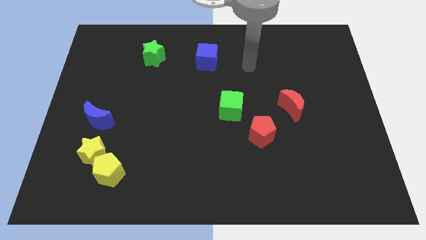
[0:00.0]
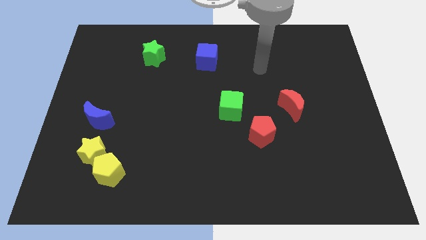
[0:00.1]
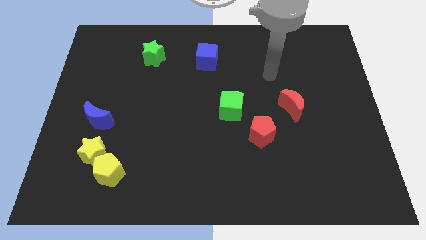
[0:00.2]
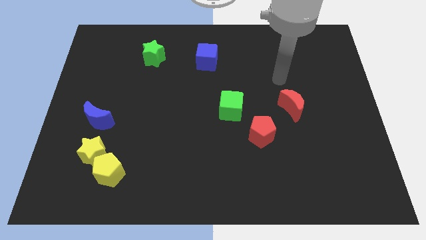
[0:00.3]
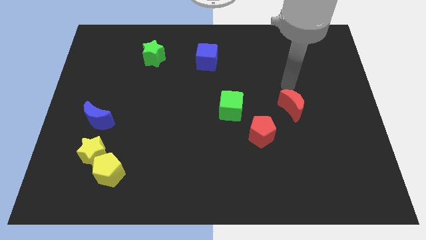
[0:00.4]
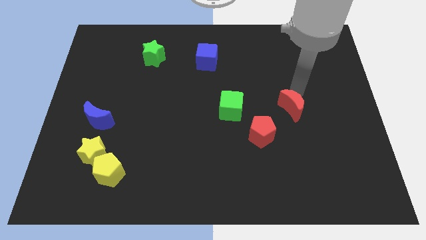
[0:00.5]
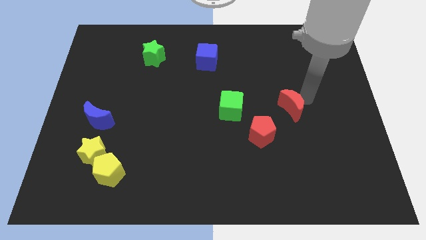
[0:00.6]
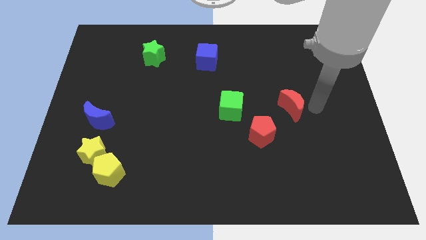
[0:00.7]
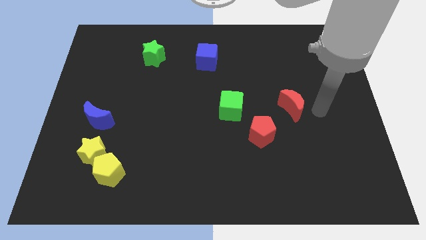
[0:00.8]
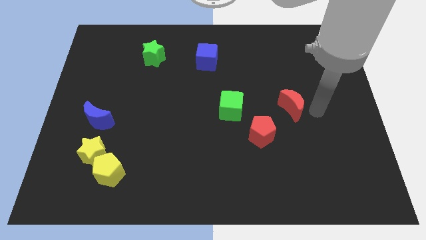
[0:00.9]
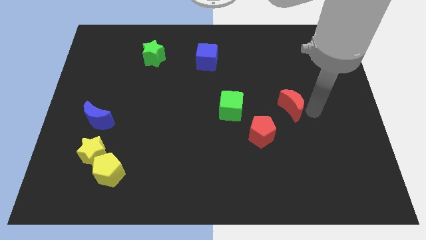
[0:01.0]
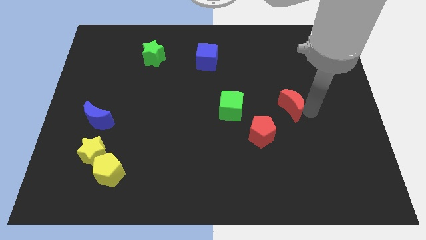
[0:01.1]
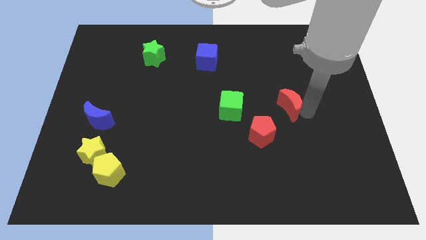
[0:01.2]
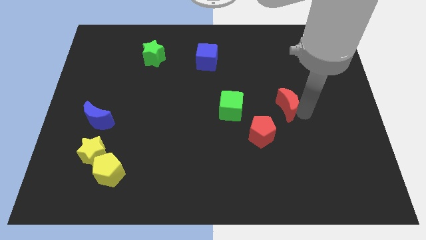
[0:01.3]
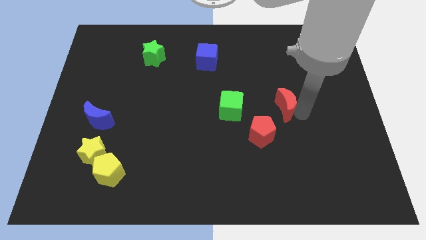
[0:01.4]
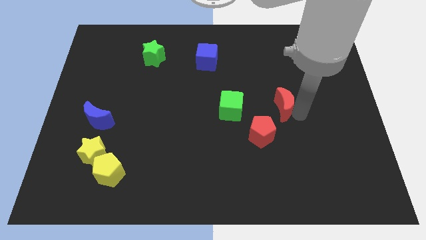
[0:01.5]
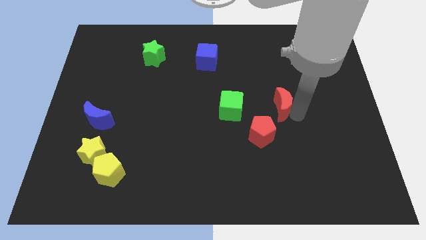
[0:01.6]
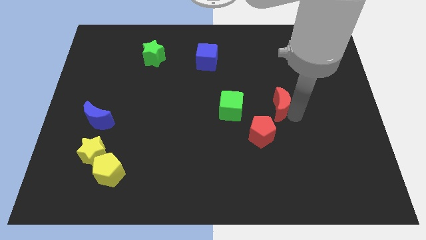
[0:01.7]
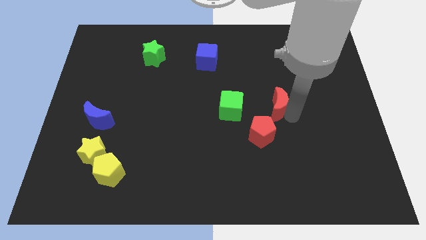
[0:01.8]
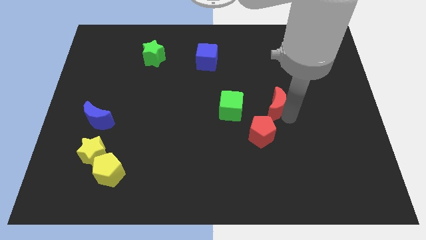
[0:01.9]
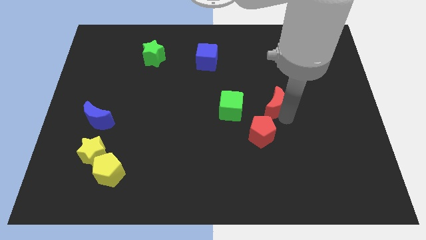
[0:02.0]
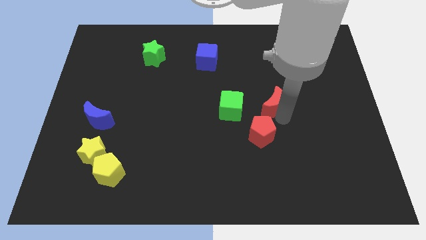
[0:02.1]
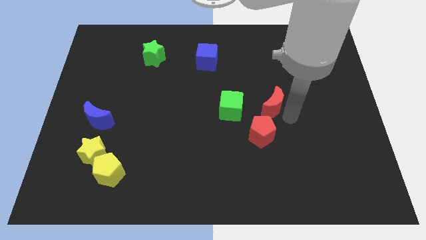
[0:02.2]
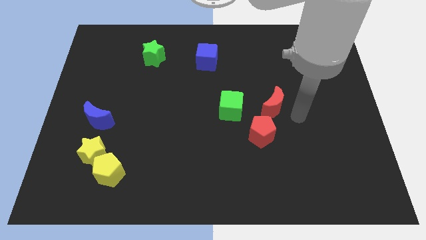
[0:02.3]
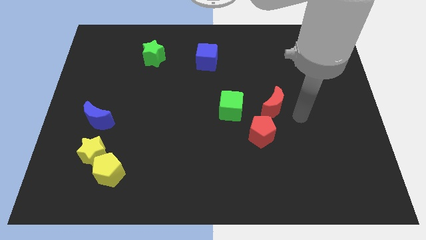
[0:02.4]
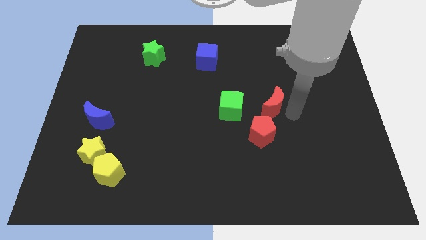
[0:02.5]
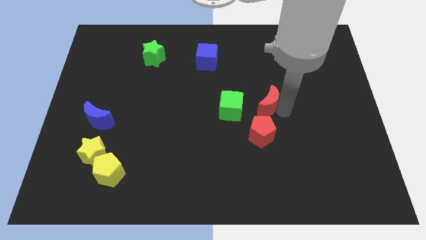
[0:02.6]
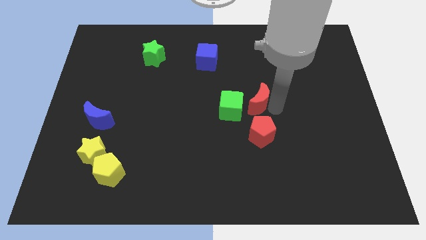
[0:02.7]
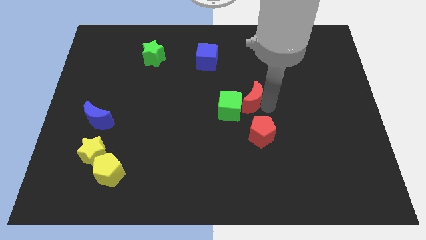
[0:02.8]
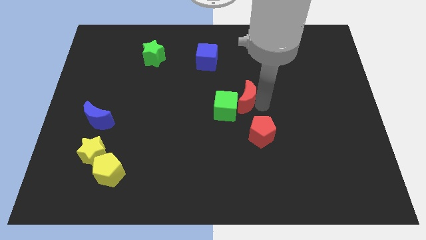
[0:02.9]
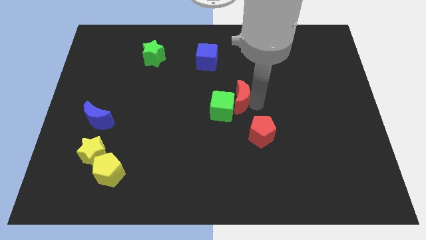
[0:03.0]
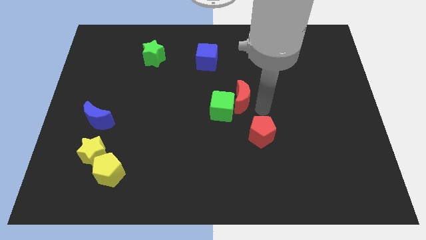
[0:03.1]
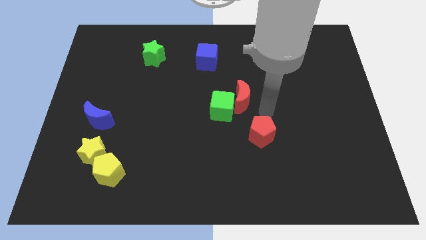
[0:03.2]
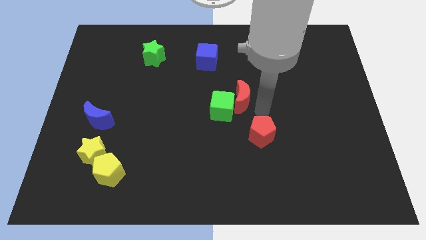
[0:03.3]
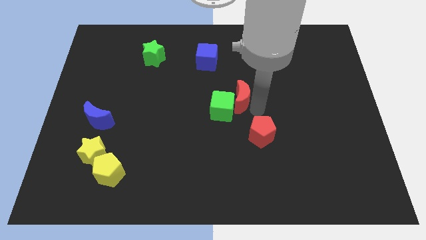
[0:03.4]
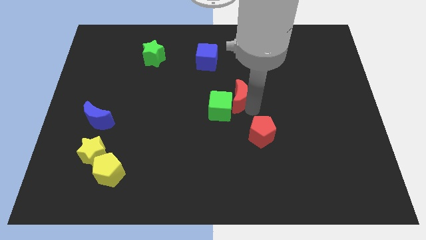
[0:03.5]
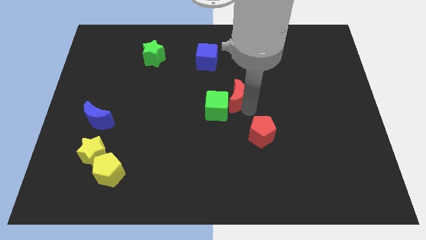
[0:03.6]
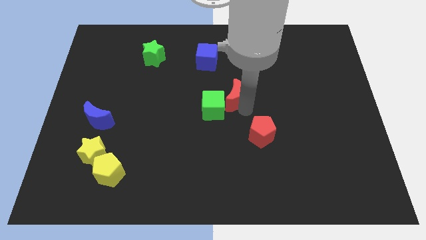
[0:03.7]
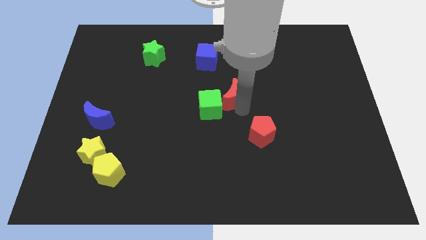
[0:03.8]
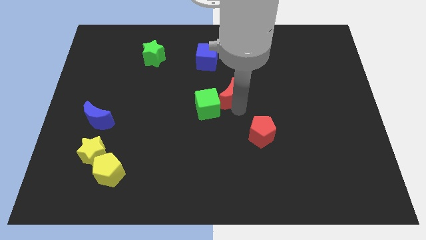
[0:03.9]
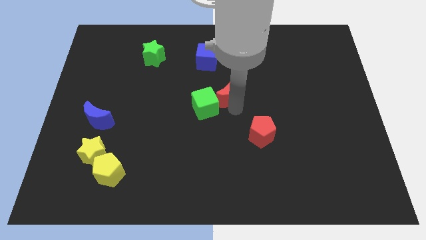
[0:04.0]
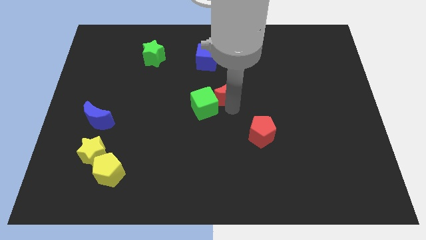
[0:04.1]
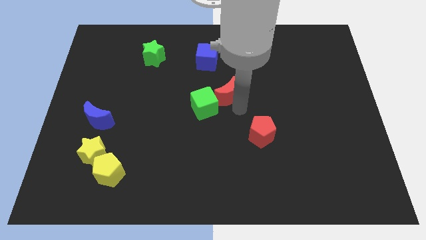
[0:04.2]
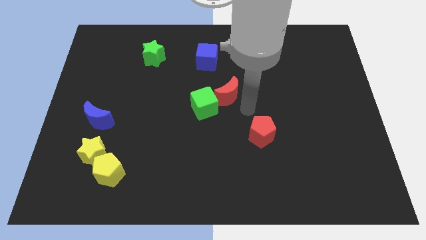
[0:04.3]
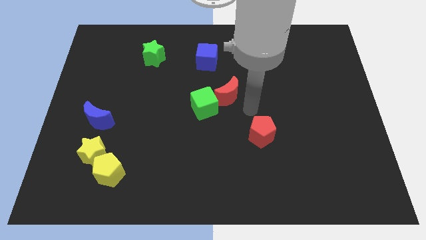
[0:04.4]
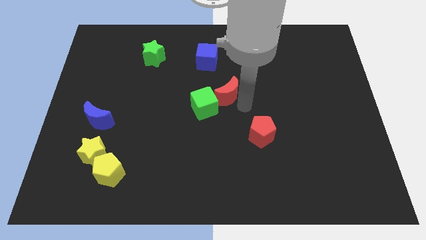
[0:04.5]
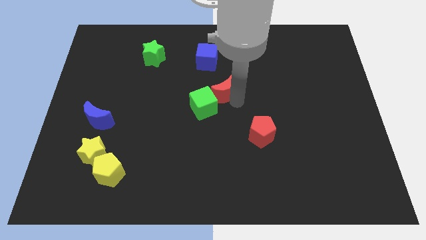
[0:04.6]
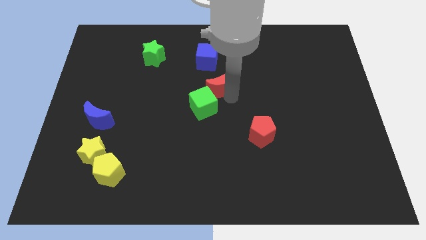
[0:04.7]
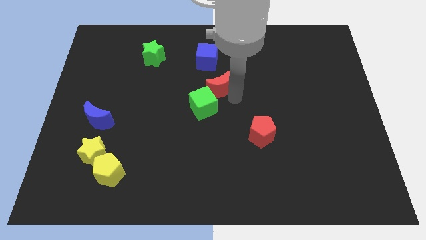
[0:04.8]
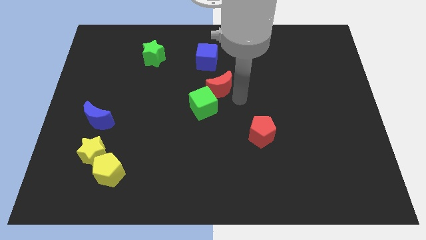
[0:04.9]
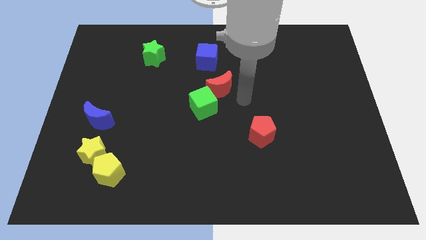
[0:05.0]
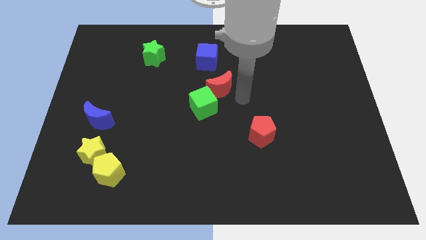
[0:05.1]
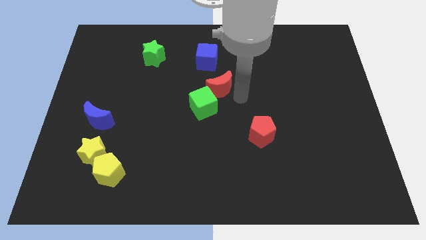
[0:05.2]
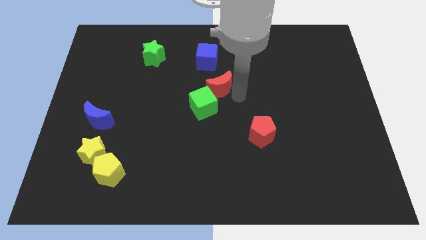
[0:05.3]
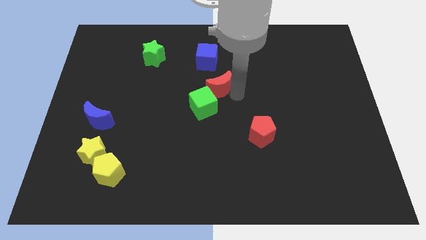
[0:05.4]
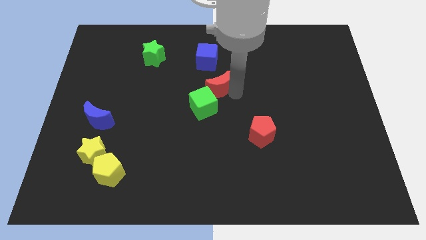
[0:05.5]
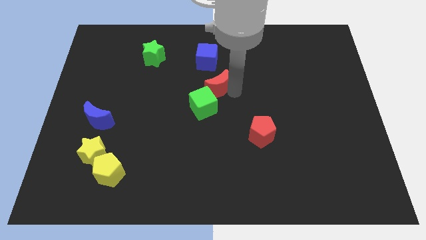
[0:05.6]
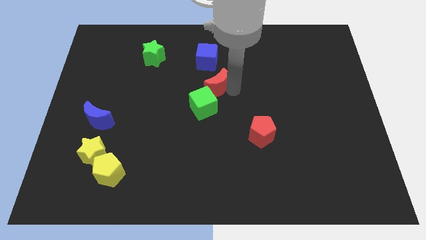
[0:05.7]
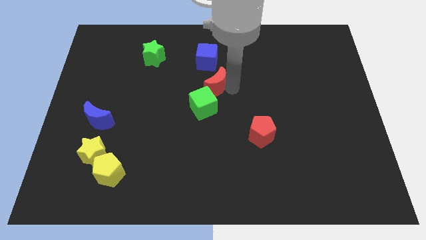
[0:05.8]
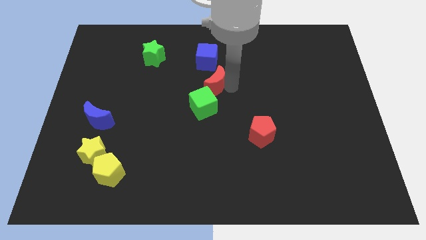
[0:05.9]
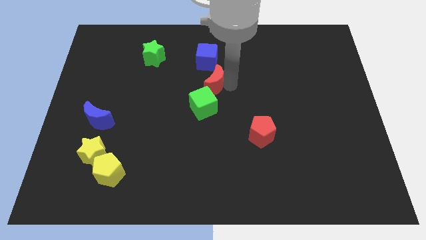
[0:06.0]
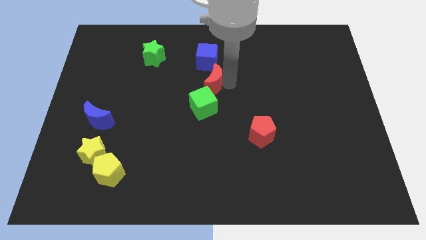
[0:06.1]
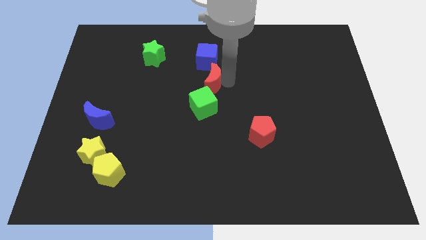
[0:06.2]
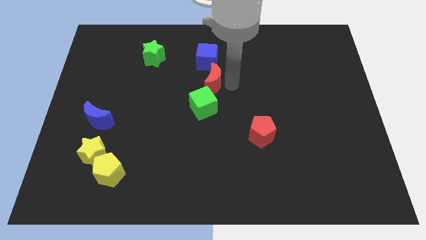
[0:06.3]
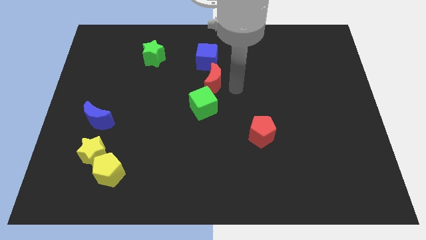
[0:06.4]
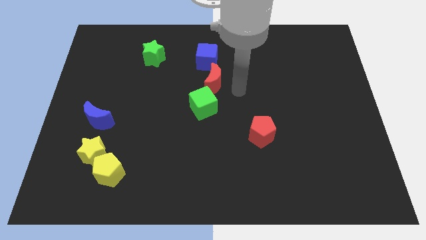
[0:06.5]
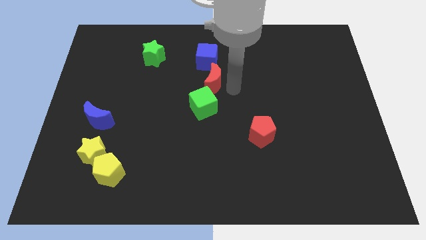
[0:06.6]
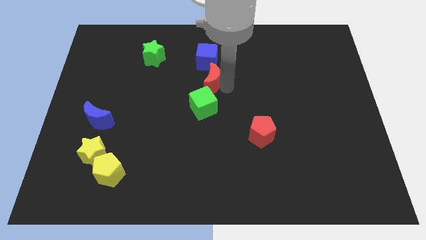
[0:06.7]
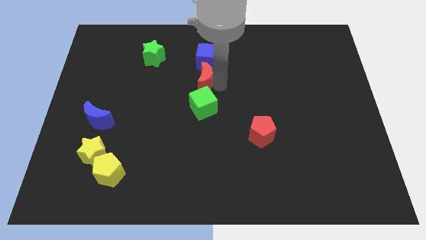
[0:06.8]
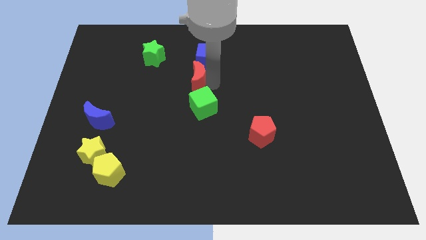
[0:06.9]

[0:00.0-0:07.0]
put the red moon to the bottom left of the blue cube
